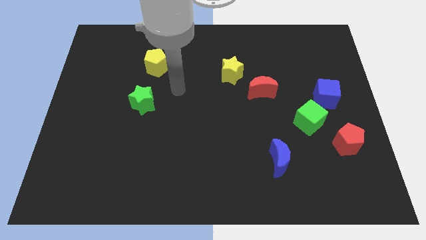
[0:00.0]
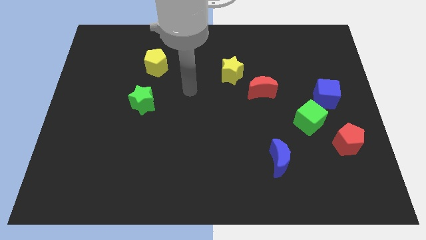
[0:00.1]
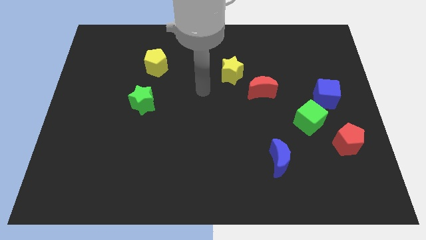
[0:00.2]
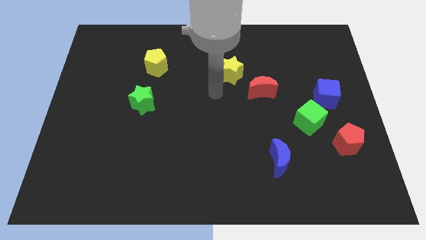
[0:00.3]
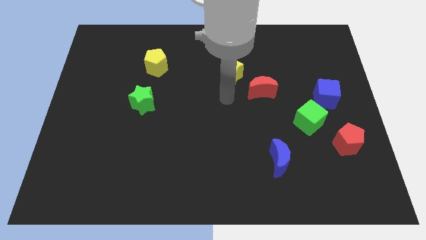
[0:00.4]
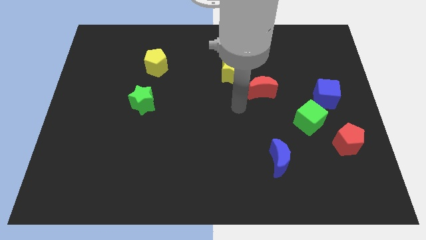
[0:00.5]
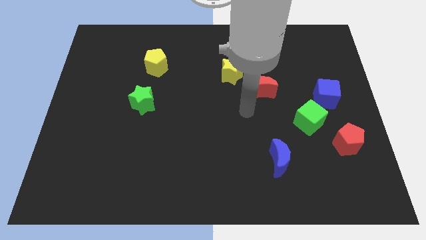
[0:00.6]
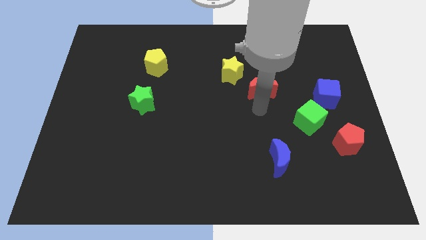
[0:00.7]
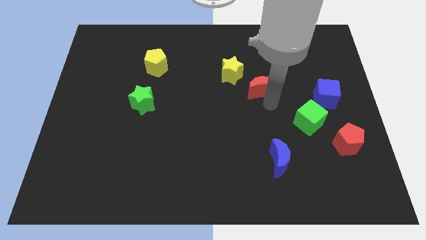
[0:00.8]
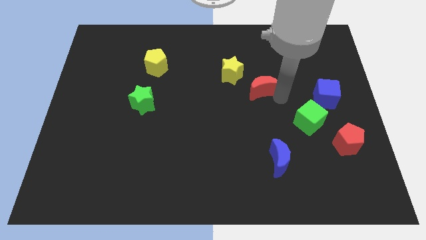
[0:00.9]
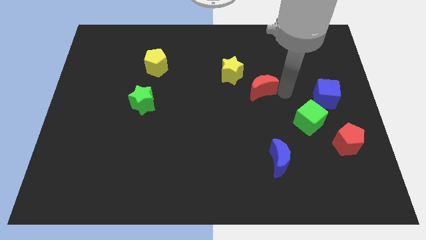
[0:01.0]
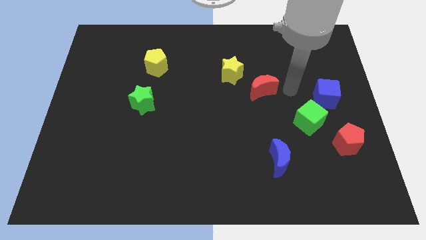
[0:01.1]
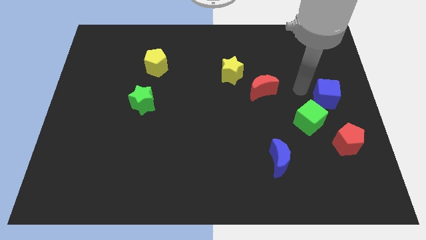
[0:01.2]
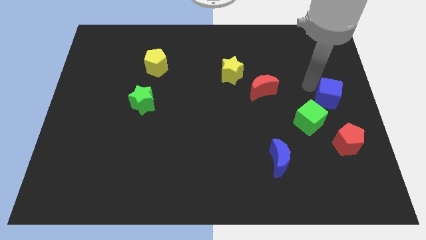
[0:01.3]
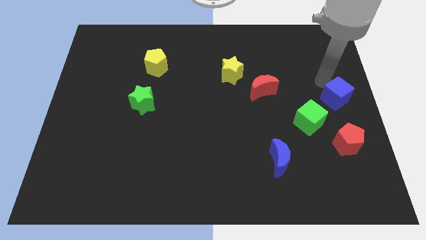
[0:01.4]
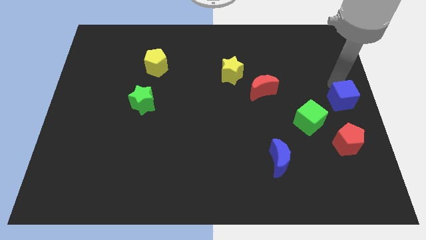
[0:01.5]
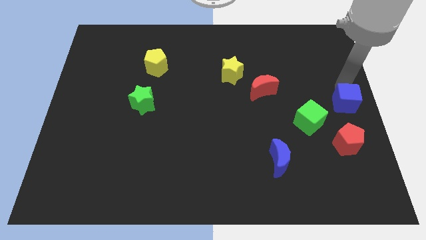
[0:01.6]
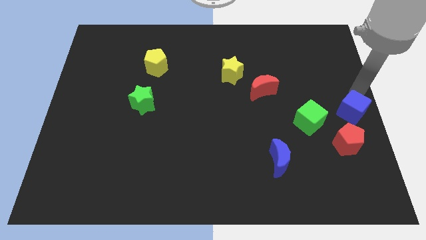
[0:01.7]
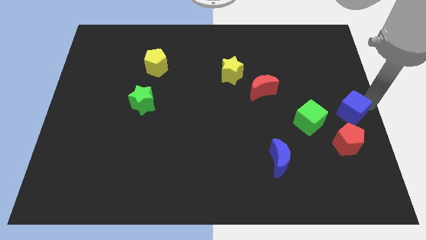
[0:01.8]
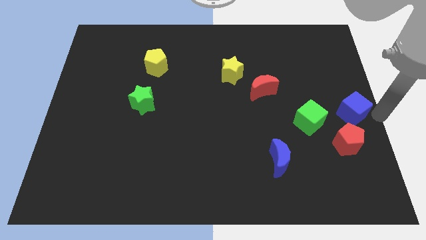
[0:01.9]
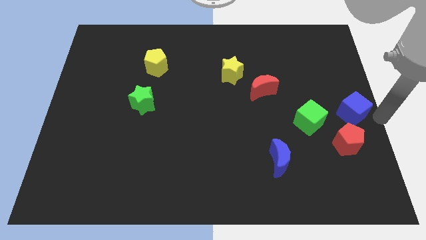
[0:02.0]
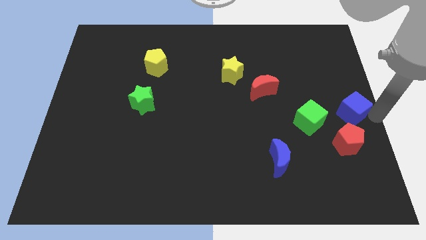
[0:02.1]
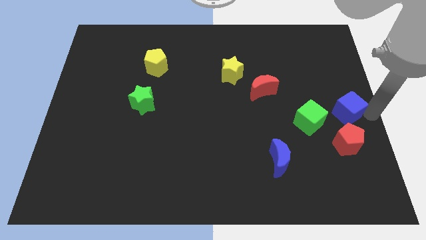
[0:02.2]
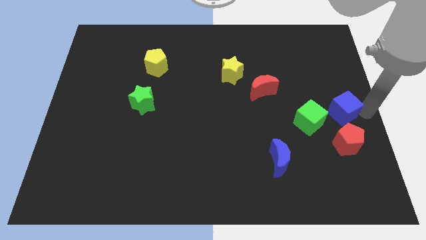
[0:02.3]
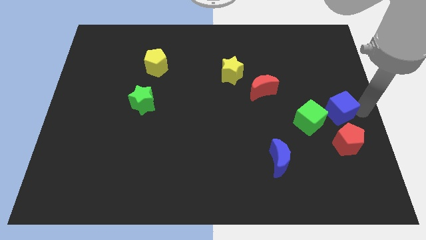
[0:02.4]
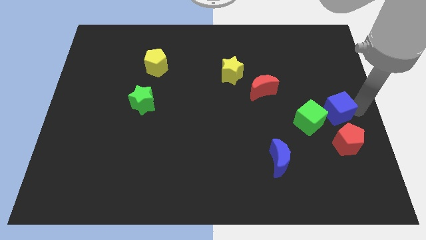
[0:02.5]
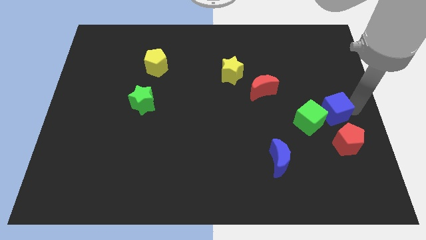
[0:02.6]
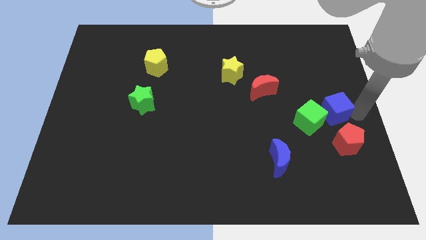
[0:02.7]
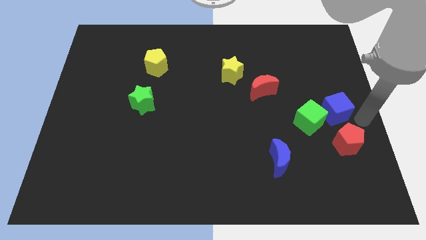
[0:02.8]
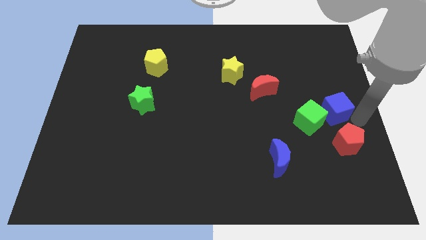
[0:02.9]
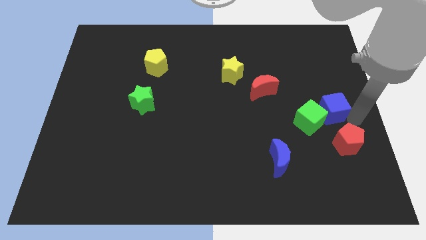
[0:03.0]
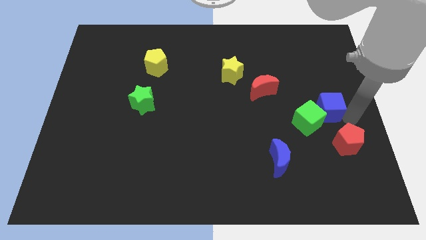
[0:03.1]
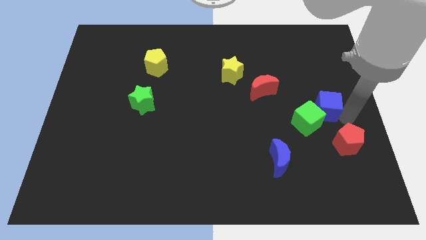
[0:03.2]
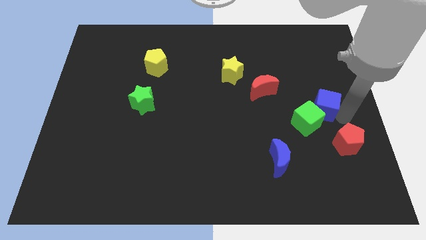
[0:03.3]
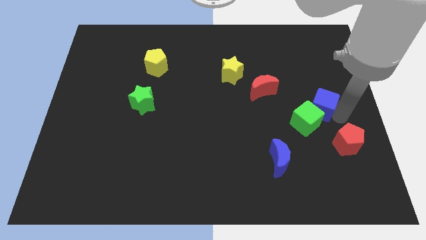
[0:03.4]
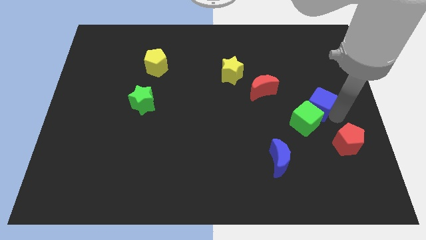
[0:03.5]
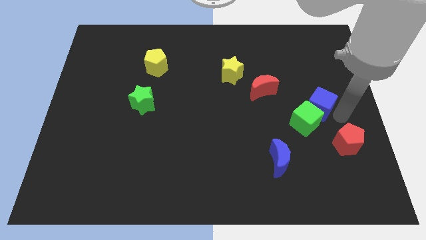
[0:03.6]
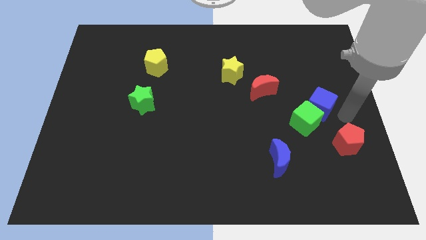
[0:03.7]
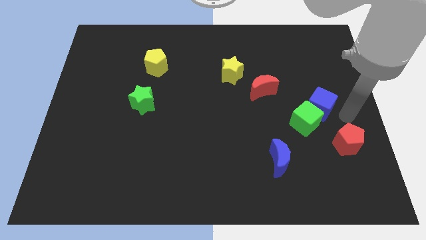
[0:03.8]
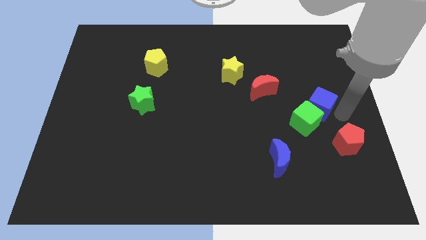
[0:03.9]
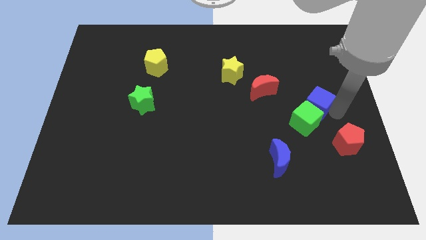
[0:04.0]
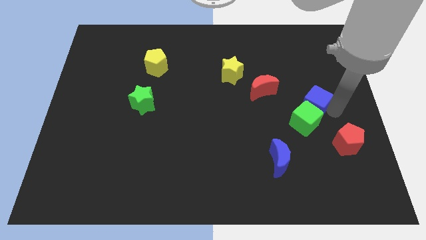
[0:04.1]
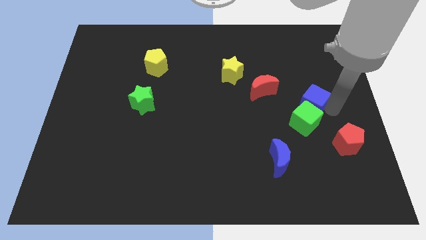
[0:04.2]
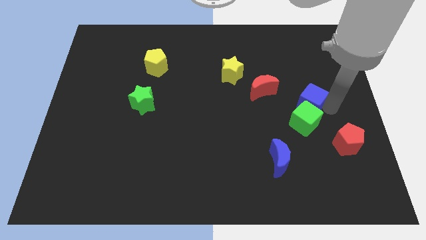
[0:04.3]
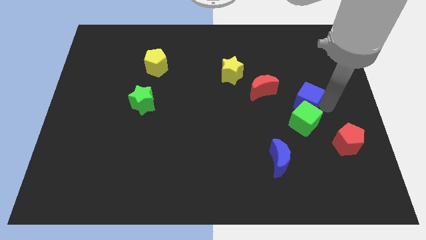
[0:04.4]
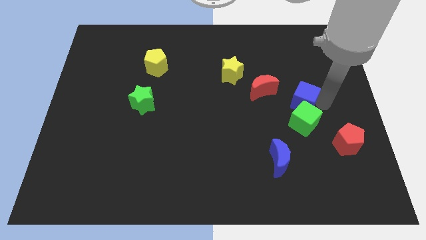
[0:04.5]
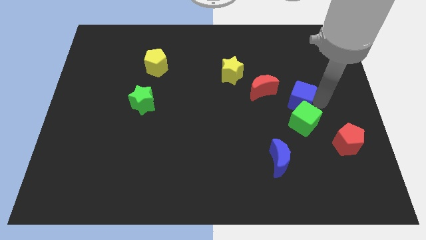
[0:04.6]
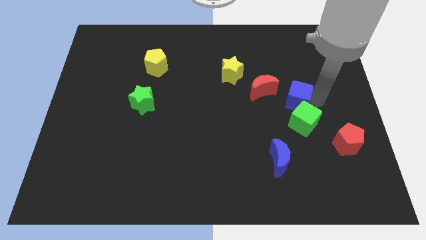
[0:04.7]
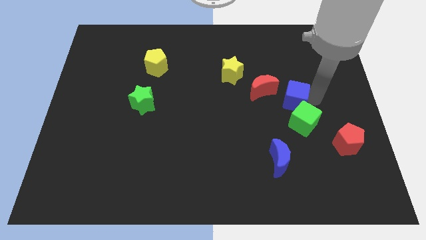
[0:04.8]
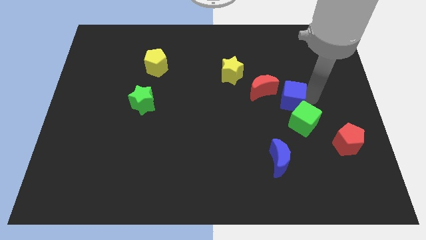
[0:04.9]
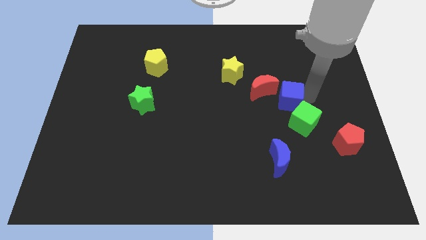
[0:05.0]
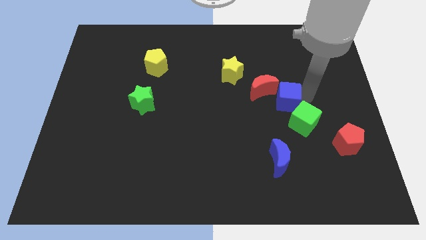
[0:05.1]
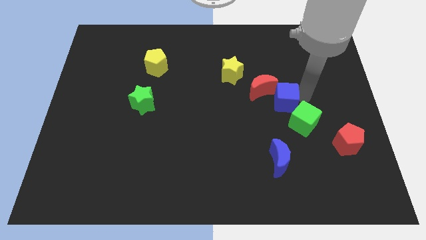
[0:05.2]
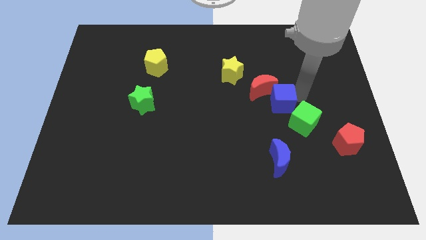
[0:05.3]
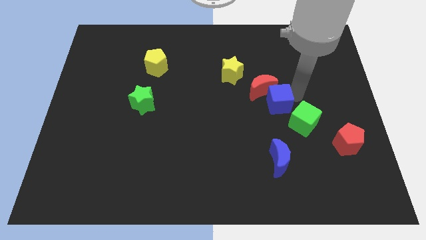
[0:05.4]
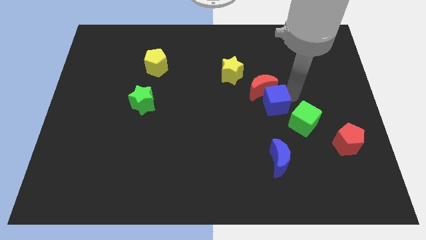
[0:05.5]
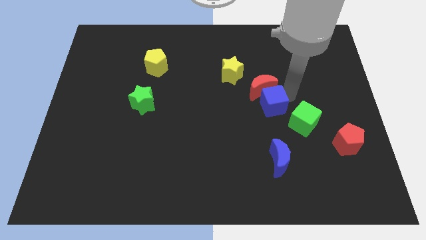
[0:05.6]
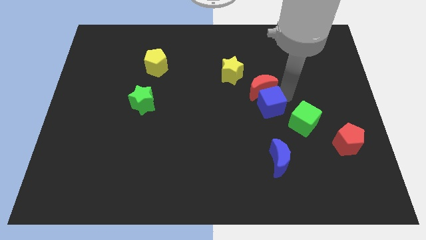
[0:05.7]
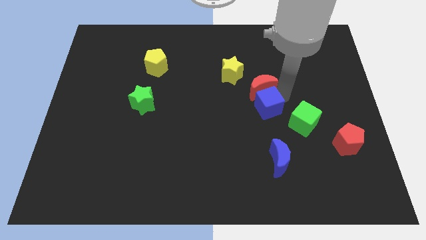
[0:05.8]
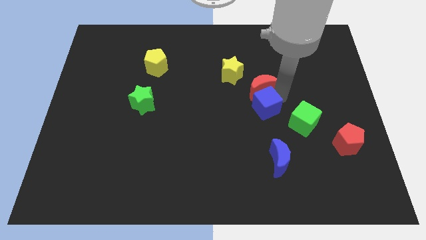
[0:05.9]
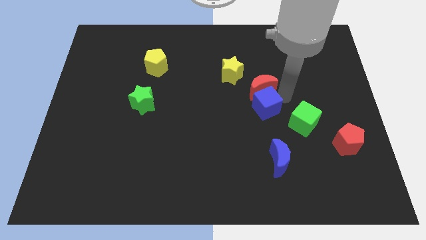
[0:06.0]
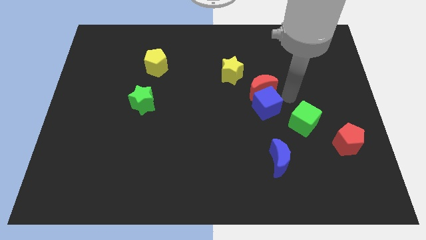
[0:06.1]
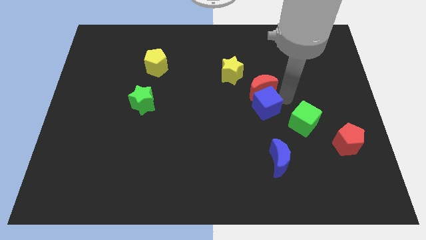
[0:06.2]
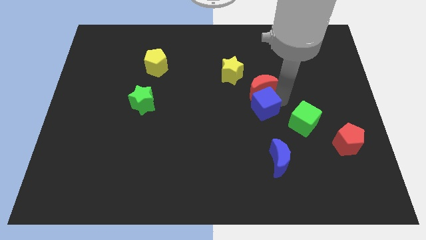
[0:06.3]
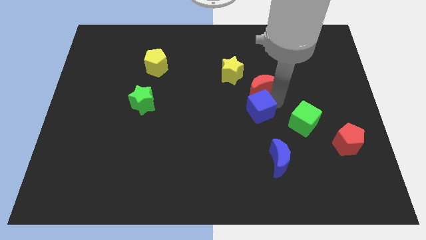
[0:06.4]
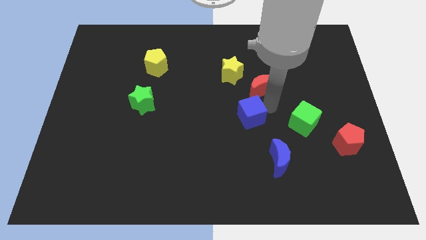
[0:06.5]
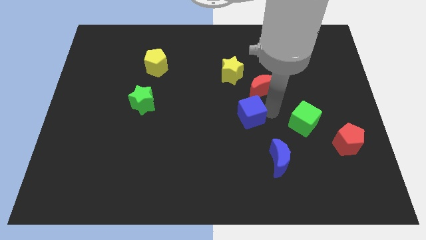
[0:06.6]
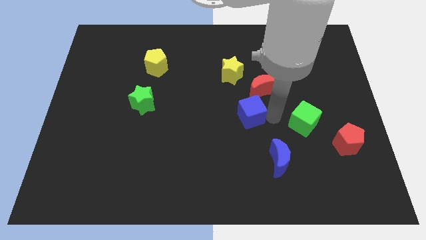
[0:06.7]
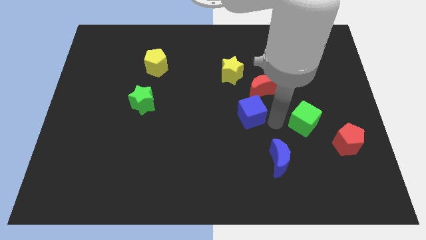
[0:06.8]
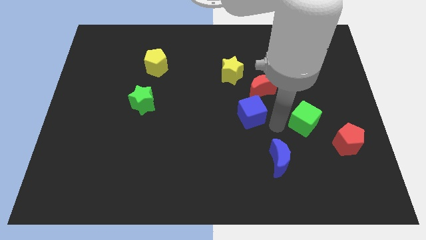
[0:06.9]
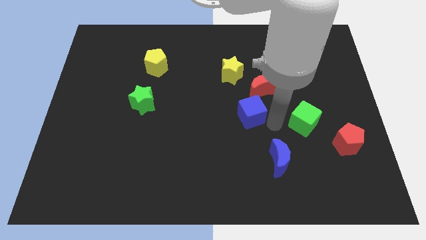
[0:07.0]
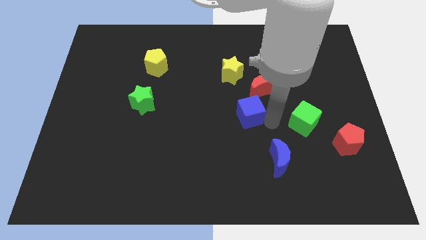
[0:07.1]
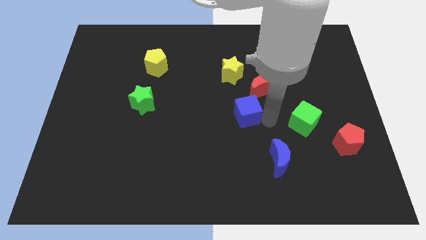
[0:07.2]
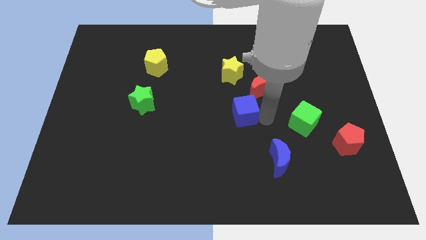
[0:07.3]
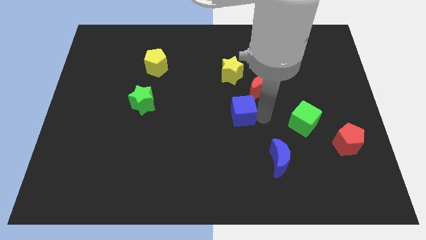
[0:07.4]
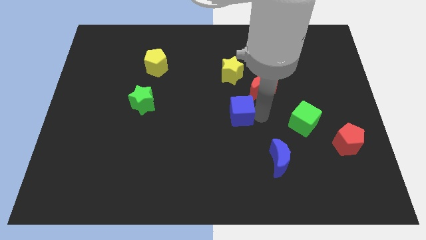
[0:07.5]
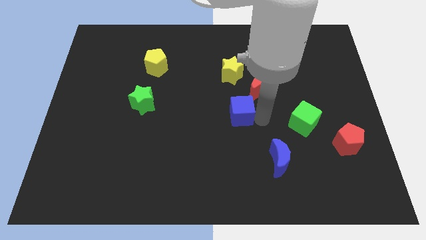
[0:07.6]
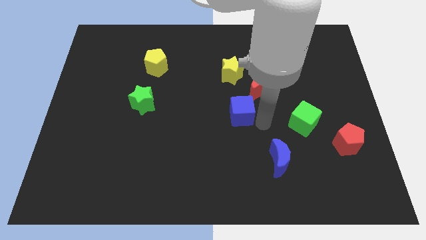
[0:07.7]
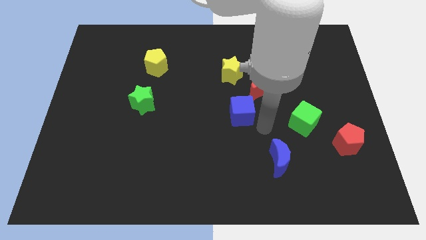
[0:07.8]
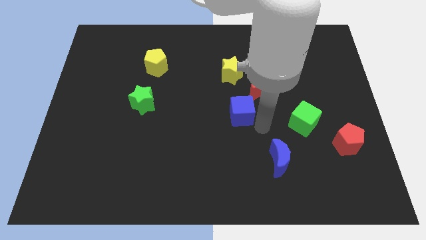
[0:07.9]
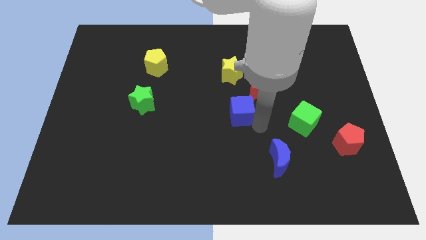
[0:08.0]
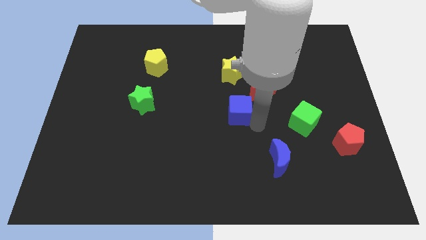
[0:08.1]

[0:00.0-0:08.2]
slide the blue cube to the left
